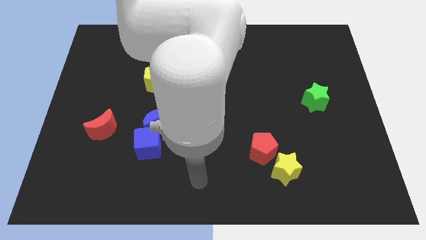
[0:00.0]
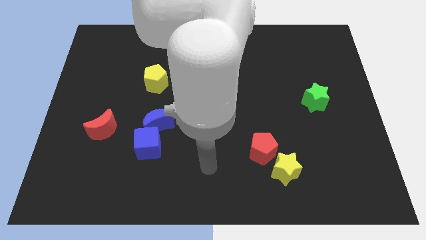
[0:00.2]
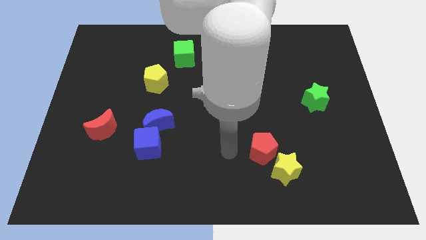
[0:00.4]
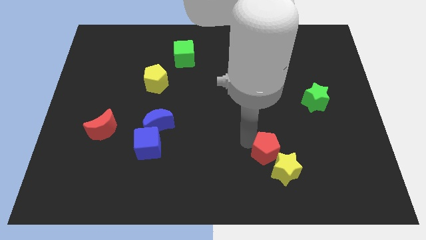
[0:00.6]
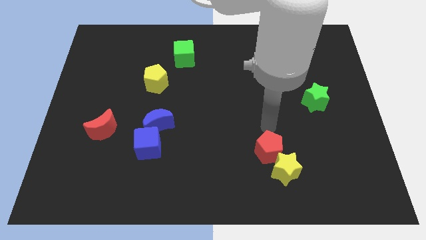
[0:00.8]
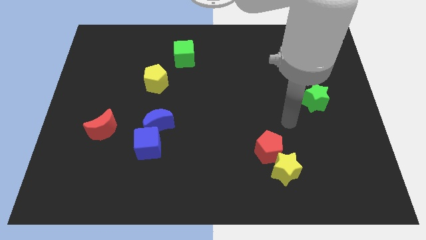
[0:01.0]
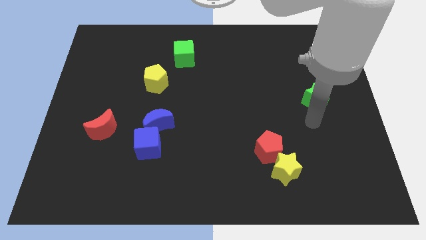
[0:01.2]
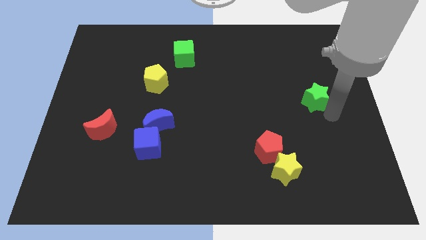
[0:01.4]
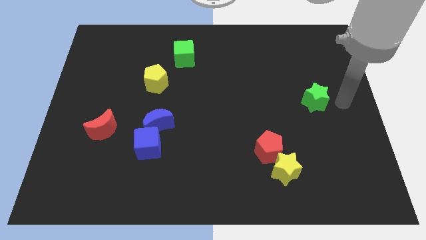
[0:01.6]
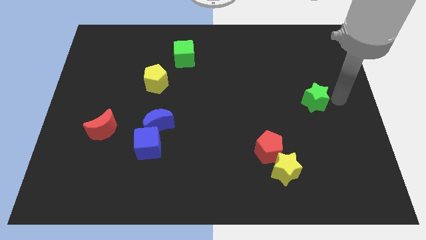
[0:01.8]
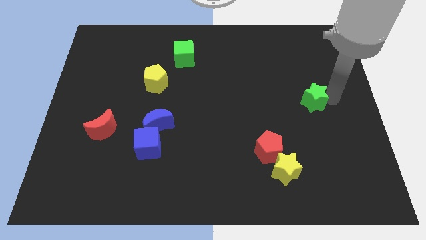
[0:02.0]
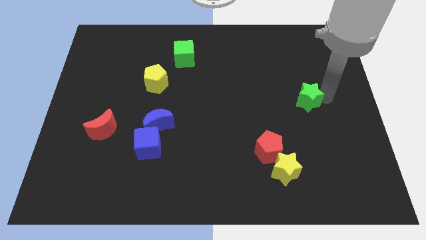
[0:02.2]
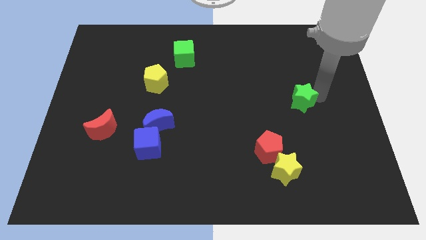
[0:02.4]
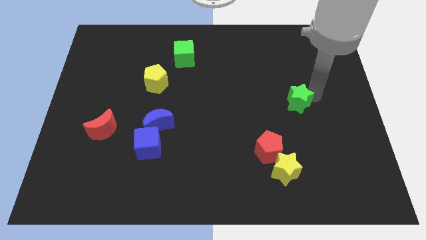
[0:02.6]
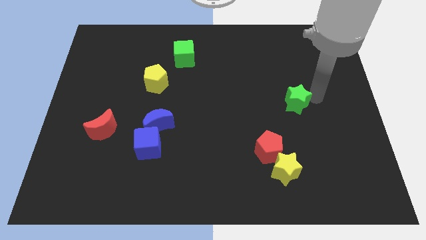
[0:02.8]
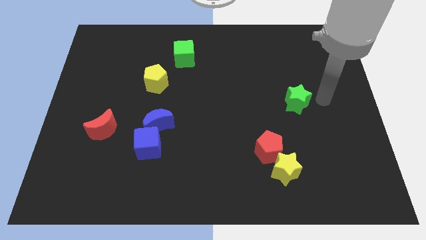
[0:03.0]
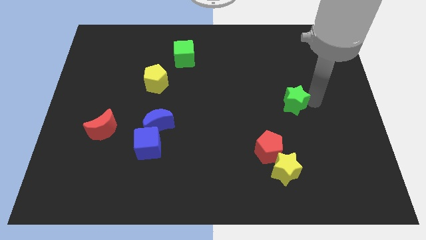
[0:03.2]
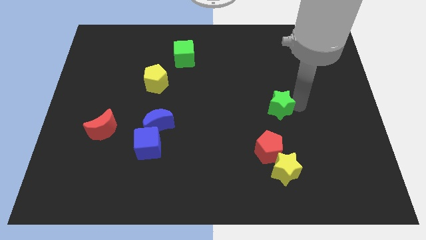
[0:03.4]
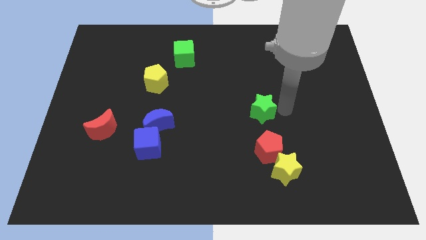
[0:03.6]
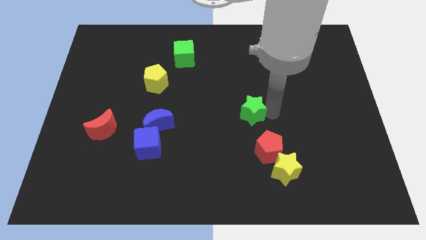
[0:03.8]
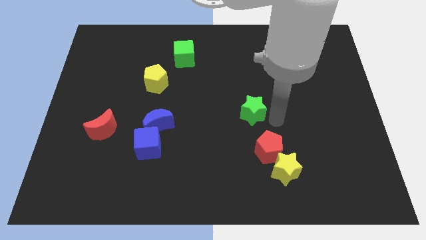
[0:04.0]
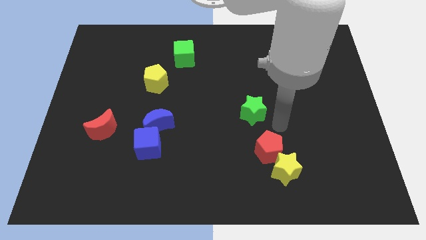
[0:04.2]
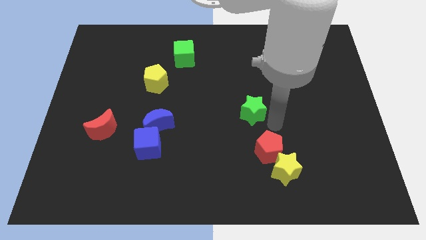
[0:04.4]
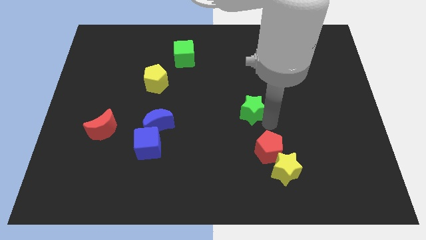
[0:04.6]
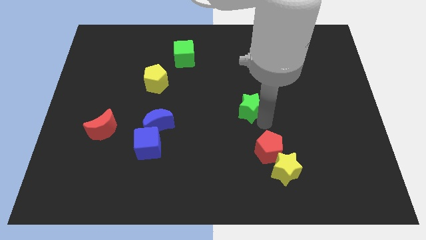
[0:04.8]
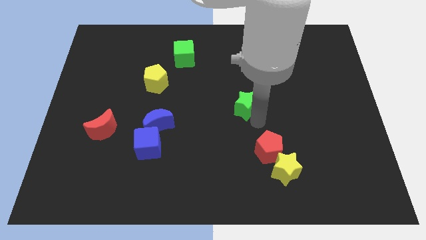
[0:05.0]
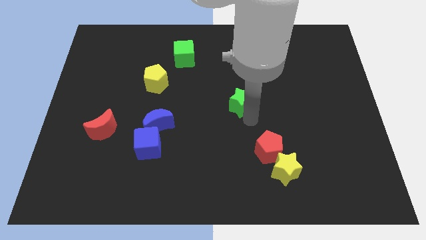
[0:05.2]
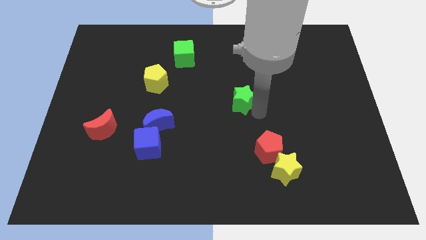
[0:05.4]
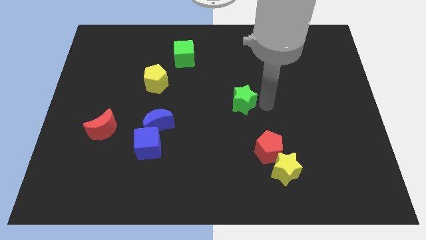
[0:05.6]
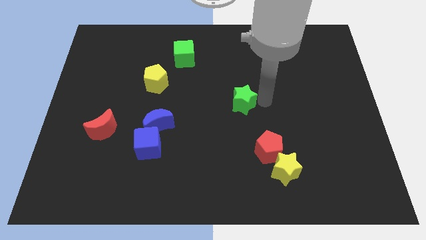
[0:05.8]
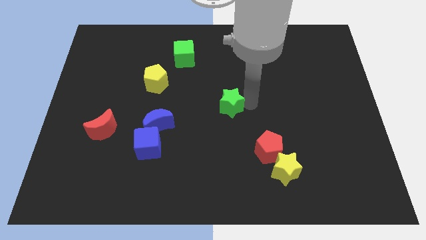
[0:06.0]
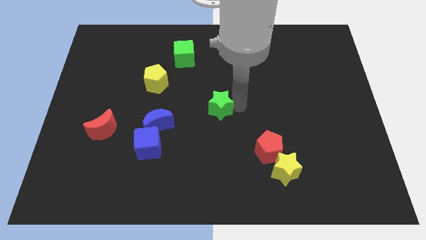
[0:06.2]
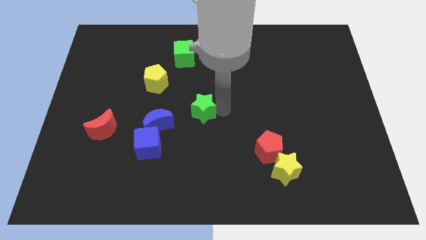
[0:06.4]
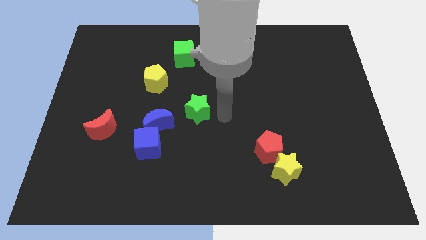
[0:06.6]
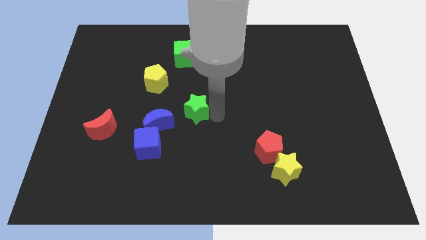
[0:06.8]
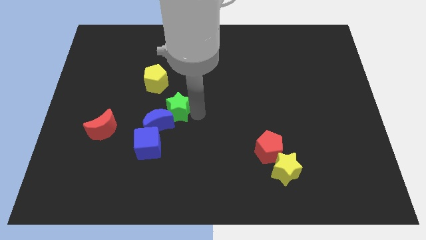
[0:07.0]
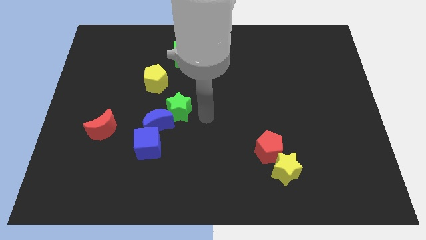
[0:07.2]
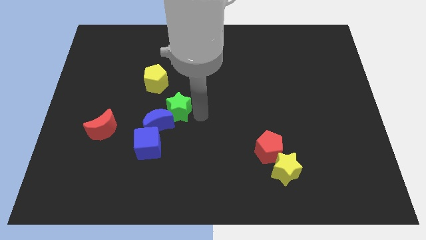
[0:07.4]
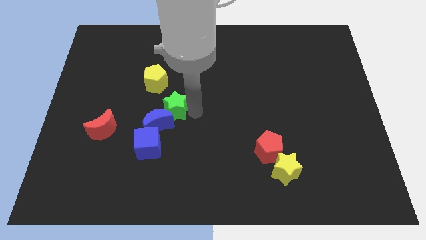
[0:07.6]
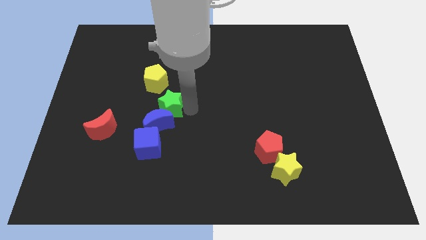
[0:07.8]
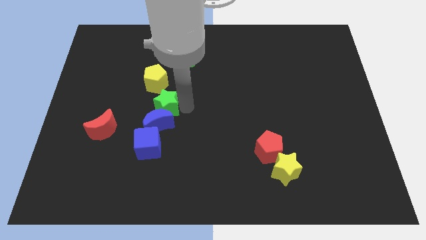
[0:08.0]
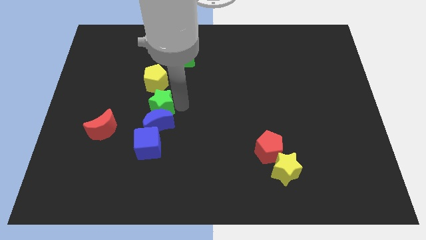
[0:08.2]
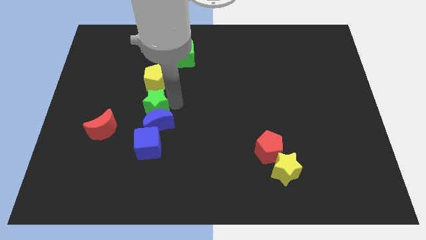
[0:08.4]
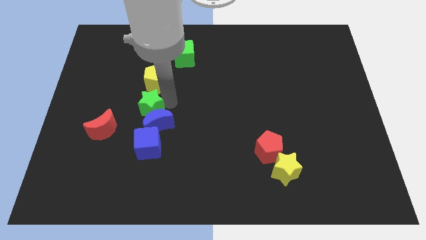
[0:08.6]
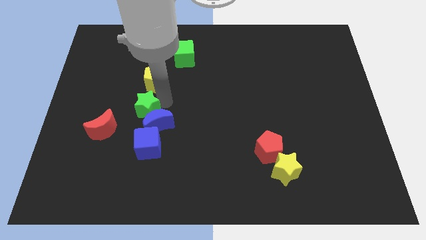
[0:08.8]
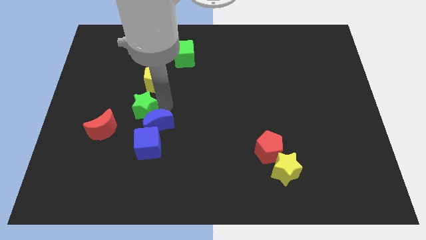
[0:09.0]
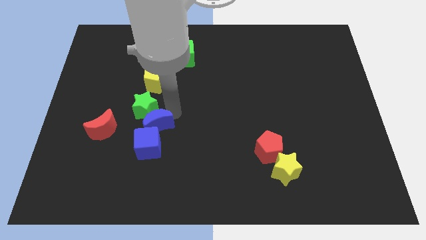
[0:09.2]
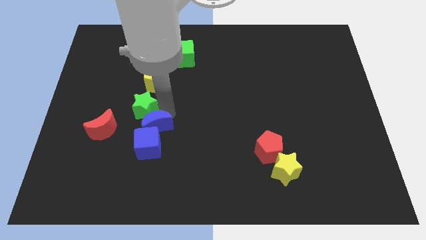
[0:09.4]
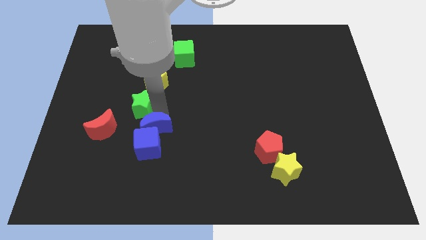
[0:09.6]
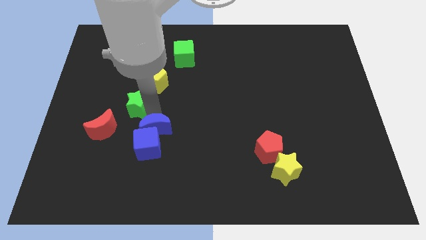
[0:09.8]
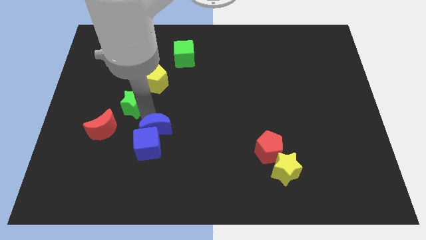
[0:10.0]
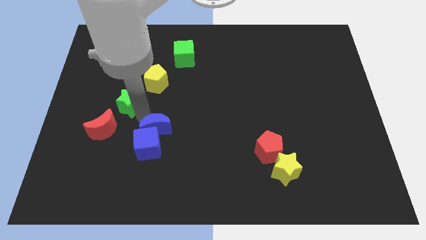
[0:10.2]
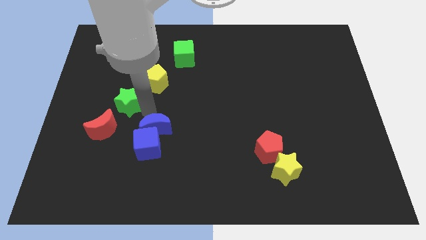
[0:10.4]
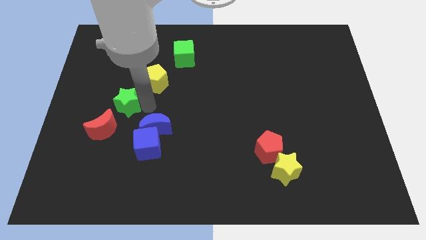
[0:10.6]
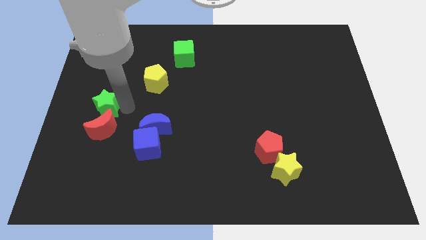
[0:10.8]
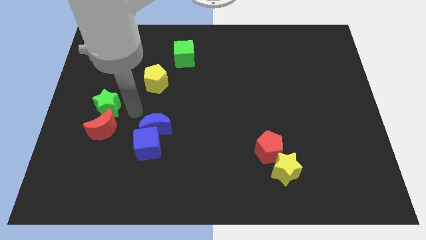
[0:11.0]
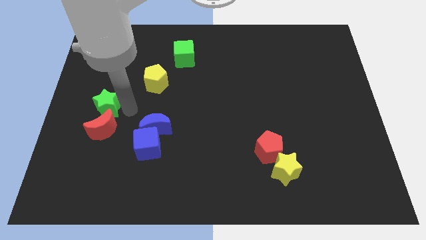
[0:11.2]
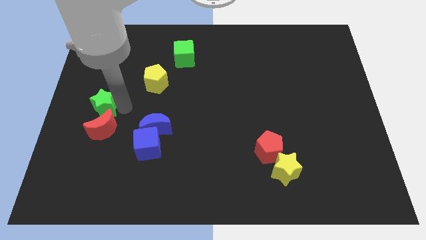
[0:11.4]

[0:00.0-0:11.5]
put the green star to the left side of the board

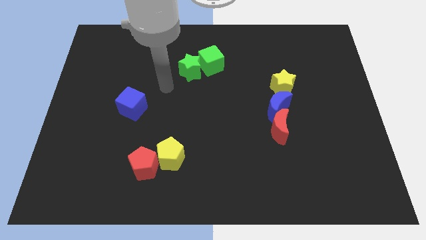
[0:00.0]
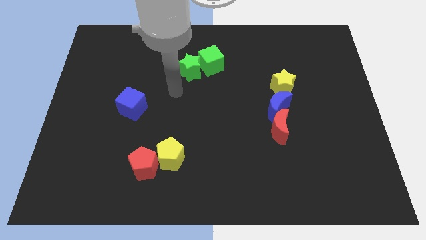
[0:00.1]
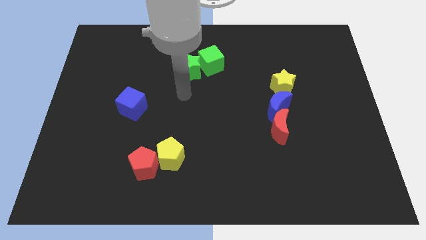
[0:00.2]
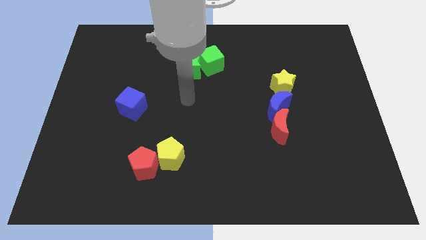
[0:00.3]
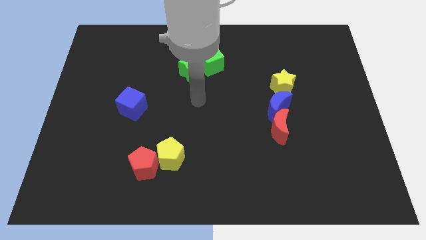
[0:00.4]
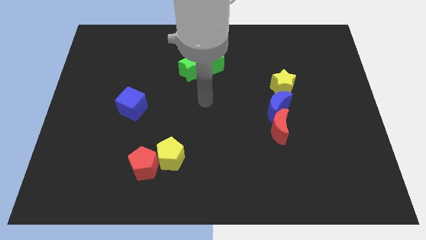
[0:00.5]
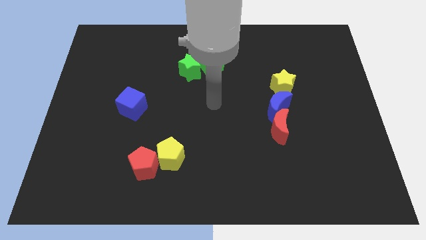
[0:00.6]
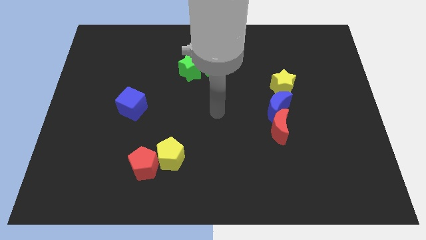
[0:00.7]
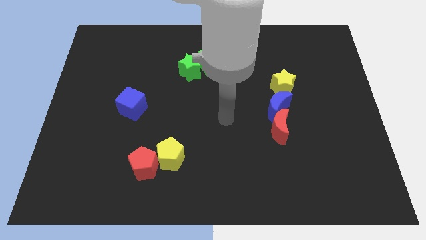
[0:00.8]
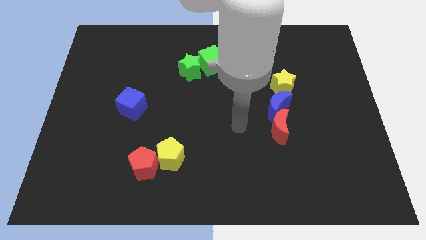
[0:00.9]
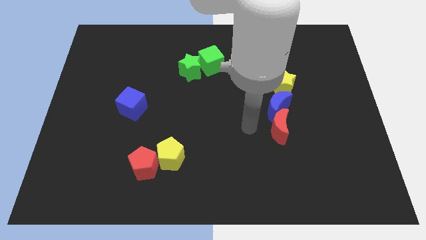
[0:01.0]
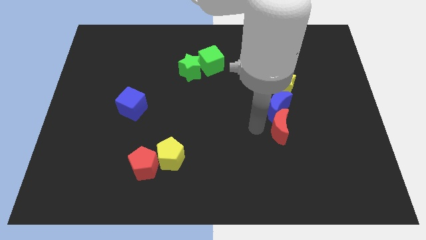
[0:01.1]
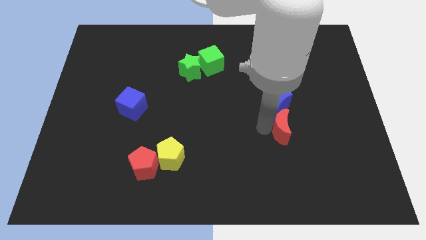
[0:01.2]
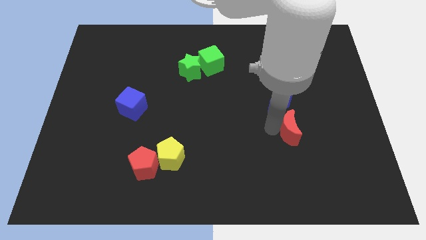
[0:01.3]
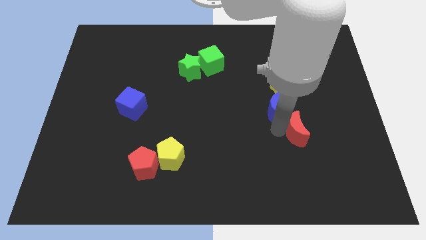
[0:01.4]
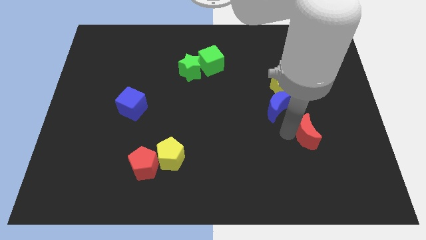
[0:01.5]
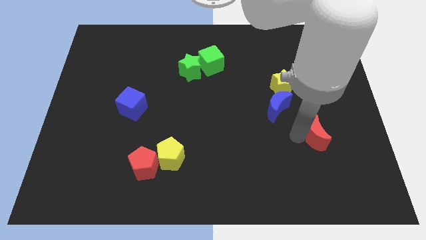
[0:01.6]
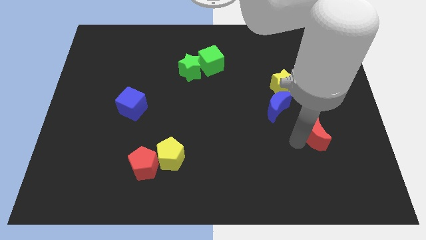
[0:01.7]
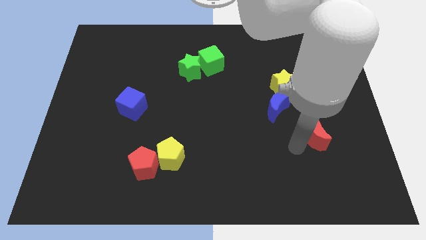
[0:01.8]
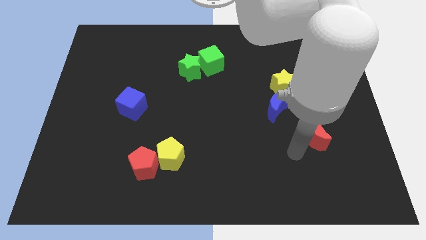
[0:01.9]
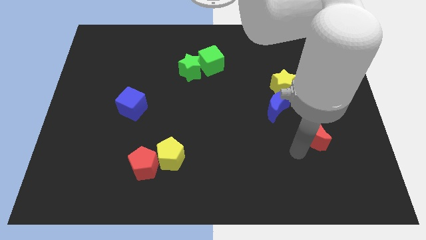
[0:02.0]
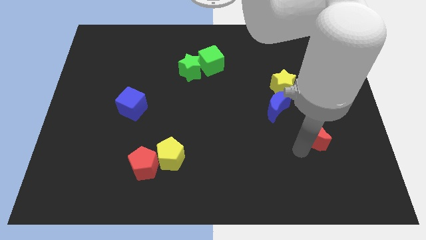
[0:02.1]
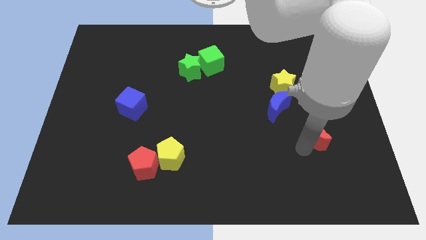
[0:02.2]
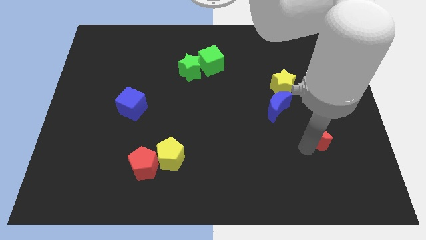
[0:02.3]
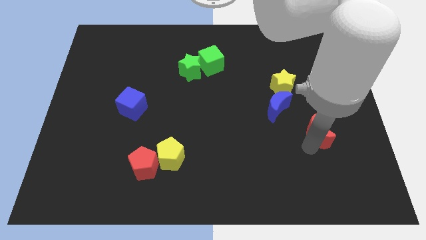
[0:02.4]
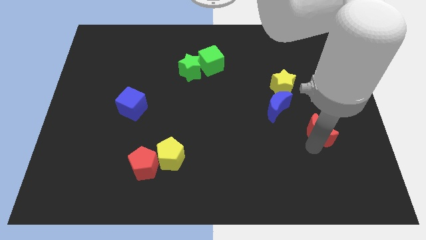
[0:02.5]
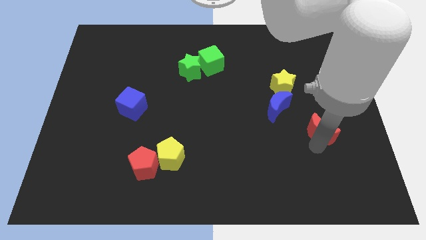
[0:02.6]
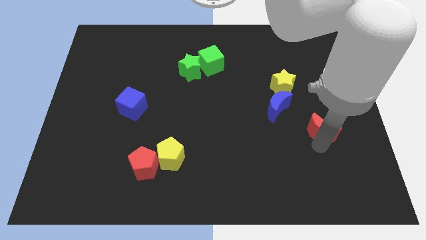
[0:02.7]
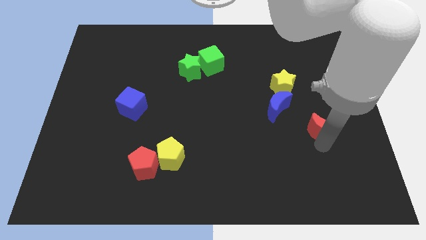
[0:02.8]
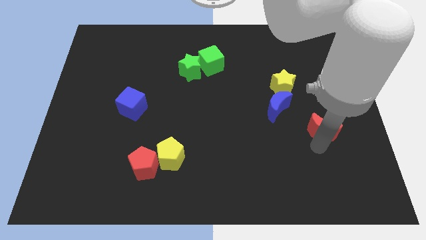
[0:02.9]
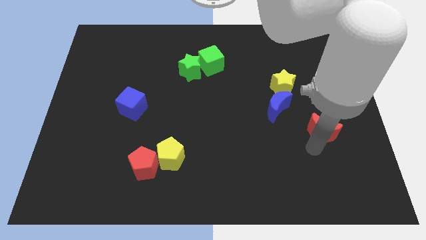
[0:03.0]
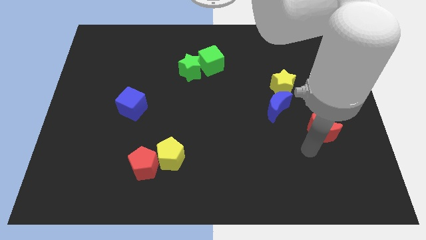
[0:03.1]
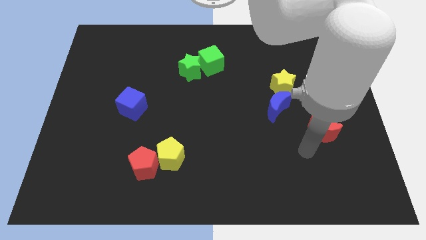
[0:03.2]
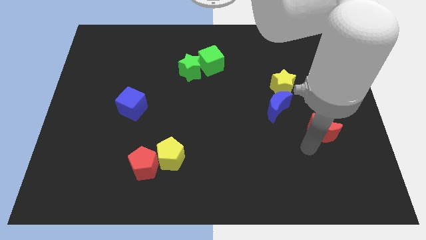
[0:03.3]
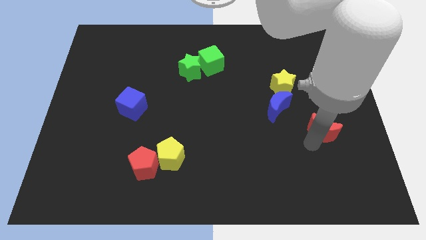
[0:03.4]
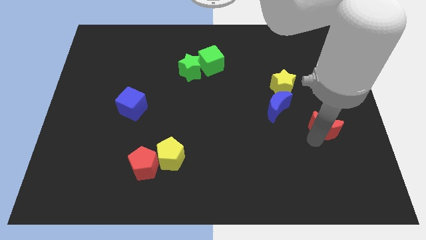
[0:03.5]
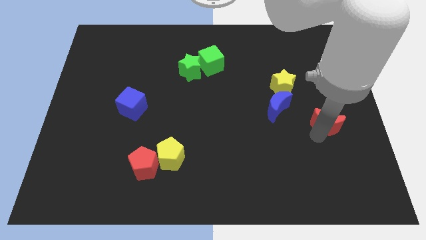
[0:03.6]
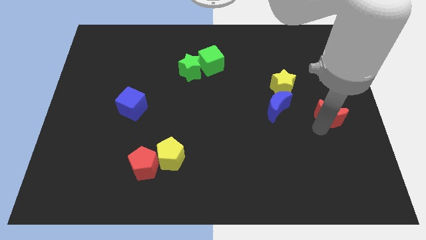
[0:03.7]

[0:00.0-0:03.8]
move the red moon to the right side
